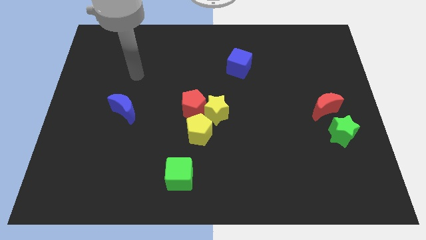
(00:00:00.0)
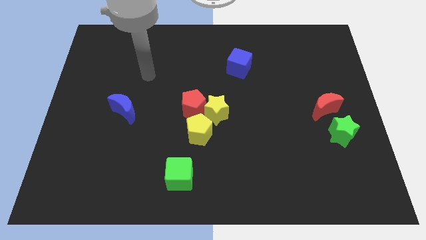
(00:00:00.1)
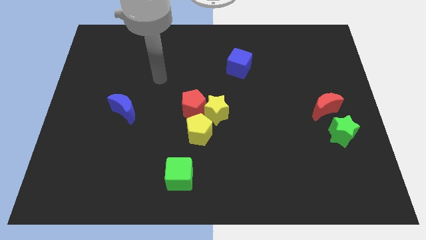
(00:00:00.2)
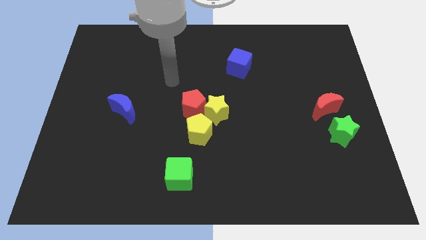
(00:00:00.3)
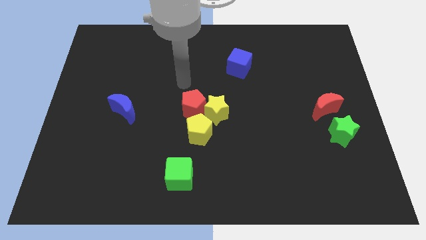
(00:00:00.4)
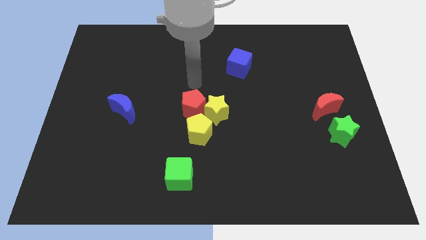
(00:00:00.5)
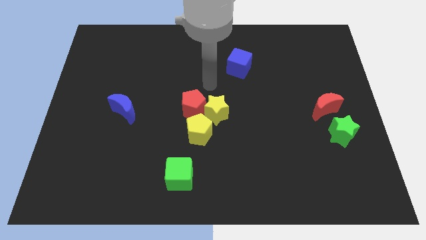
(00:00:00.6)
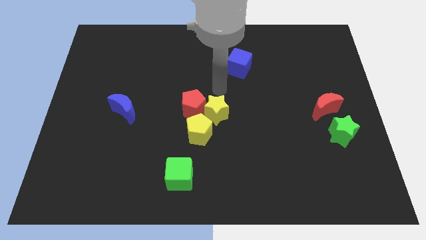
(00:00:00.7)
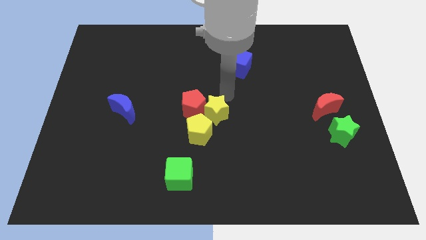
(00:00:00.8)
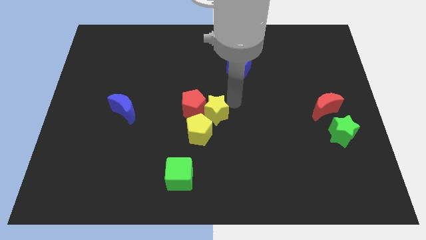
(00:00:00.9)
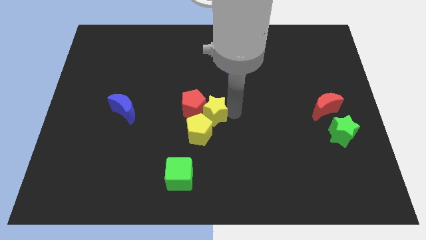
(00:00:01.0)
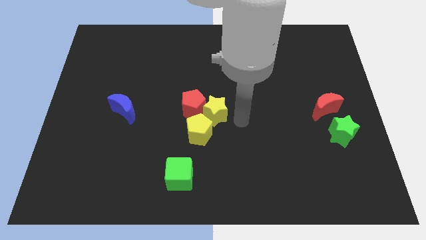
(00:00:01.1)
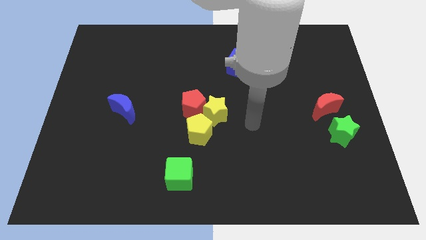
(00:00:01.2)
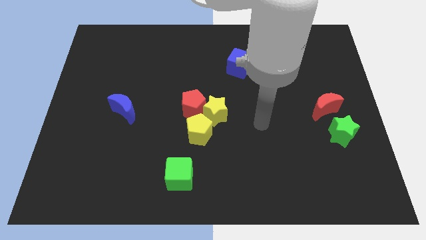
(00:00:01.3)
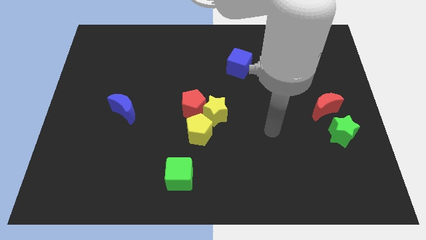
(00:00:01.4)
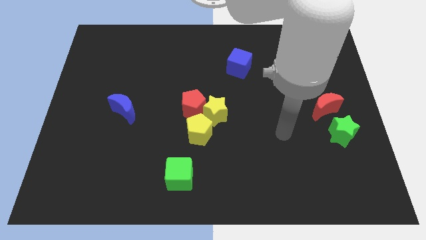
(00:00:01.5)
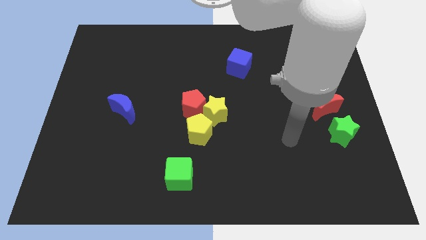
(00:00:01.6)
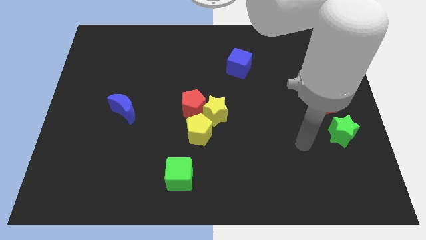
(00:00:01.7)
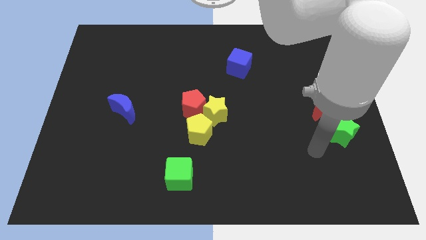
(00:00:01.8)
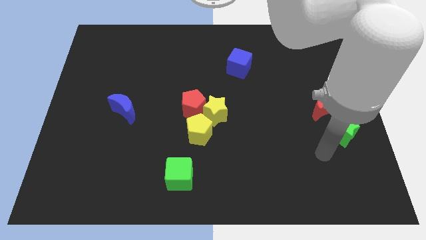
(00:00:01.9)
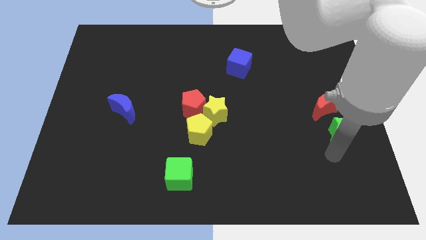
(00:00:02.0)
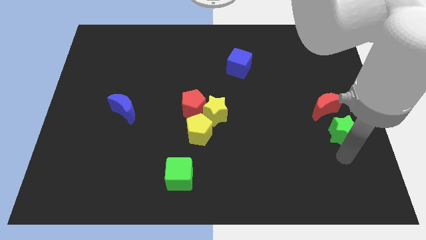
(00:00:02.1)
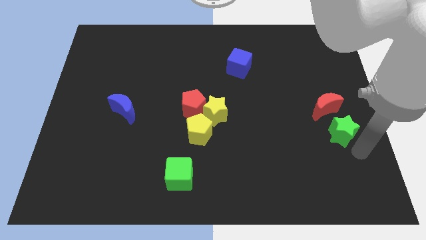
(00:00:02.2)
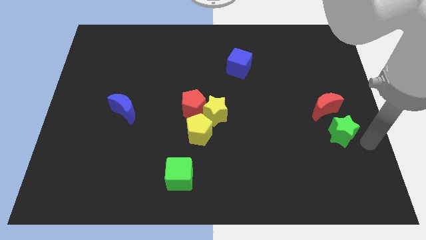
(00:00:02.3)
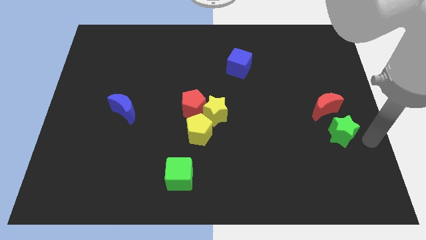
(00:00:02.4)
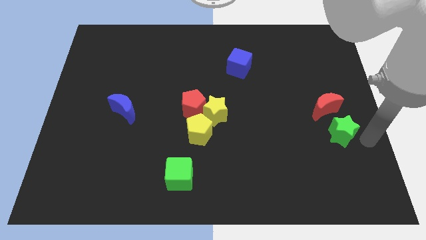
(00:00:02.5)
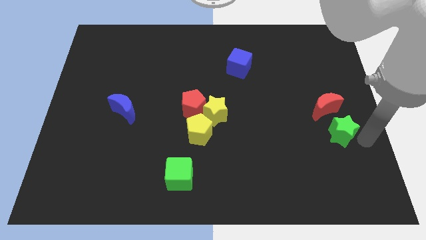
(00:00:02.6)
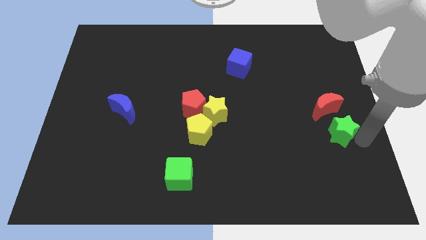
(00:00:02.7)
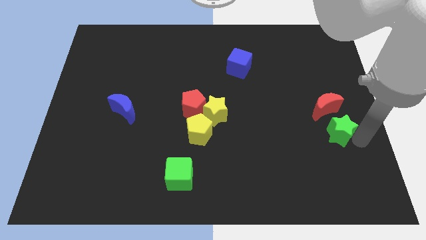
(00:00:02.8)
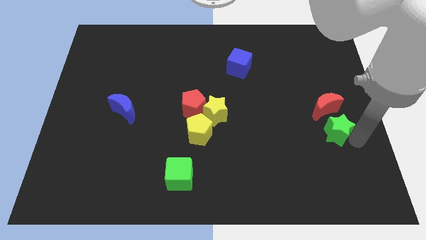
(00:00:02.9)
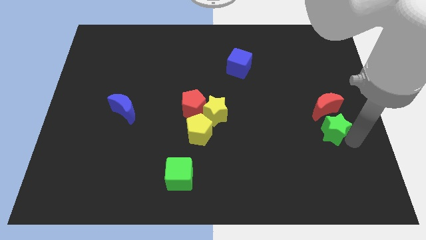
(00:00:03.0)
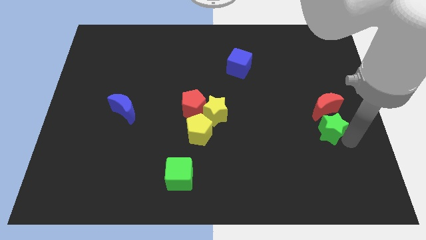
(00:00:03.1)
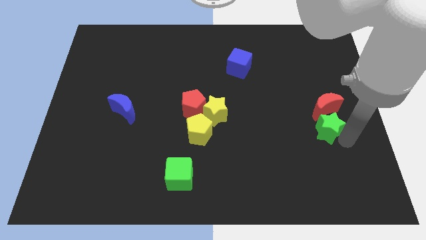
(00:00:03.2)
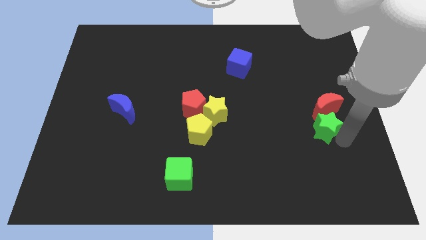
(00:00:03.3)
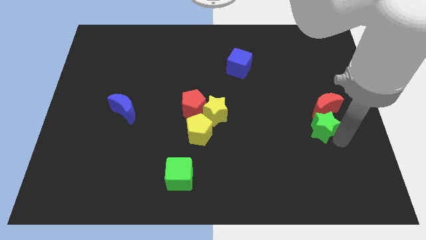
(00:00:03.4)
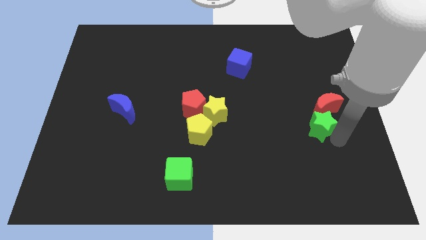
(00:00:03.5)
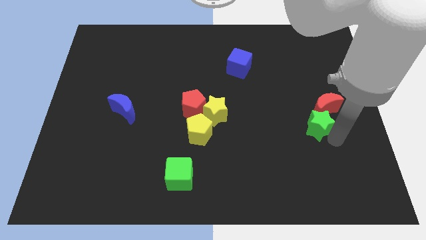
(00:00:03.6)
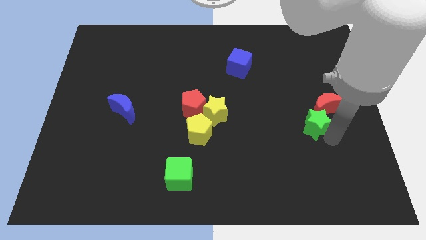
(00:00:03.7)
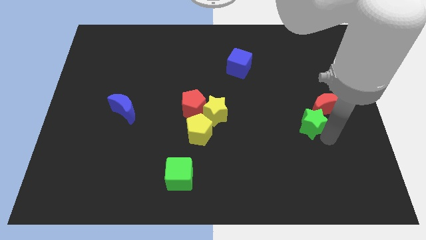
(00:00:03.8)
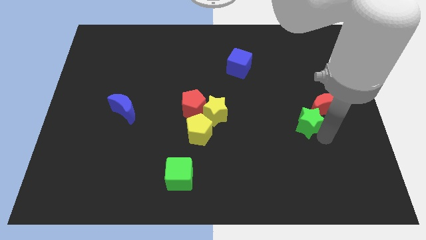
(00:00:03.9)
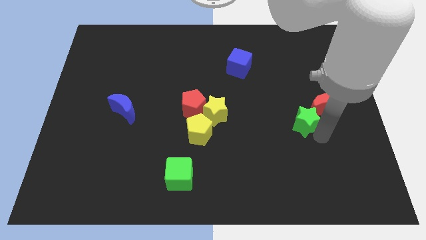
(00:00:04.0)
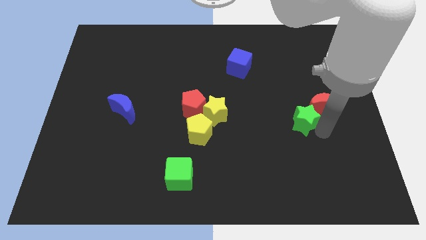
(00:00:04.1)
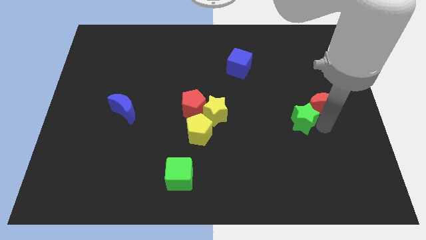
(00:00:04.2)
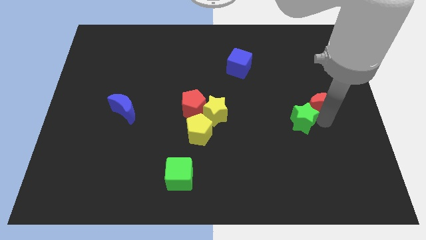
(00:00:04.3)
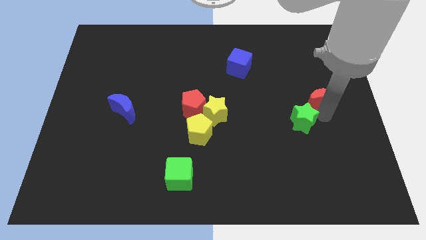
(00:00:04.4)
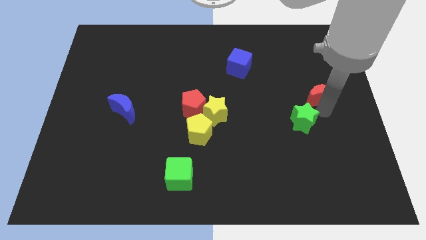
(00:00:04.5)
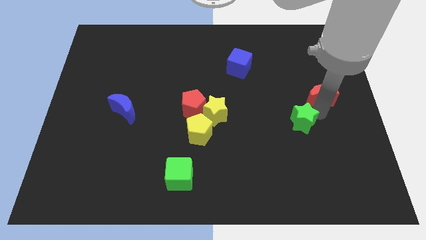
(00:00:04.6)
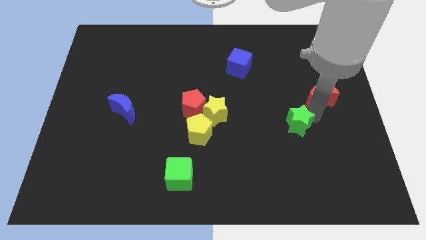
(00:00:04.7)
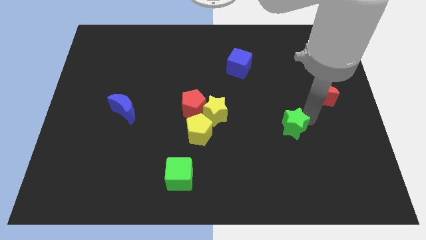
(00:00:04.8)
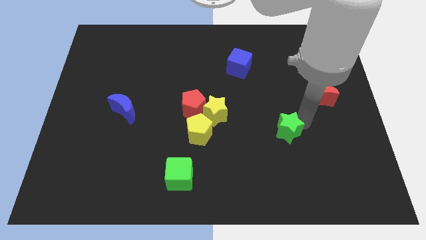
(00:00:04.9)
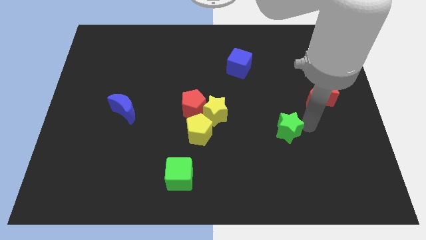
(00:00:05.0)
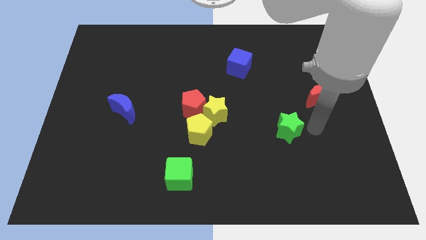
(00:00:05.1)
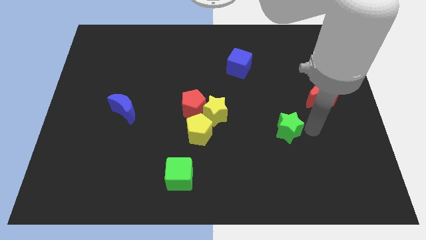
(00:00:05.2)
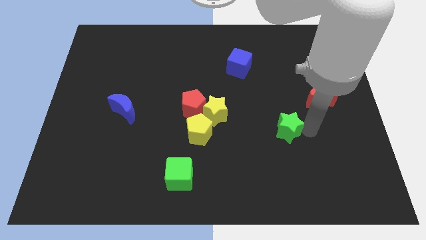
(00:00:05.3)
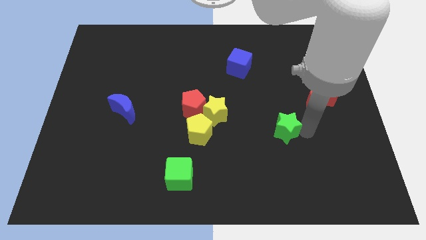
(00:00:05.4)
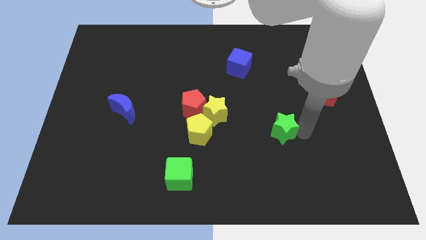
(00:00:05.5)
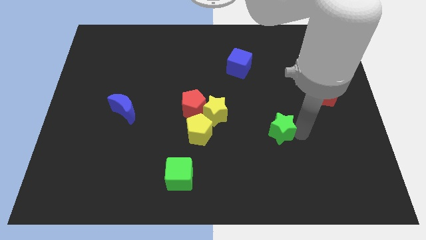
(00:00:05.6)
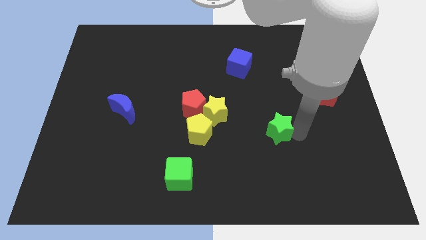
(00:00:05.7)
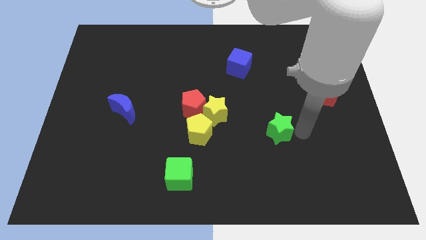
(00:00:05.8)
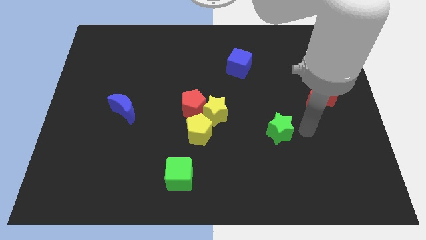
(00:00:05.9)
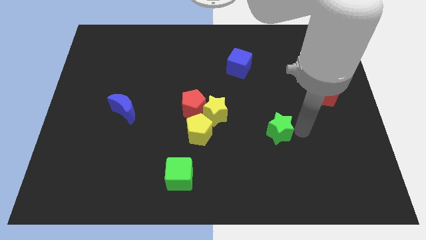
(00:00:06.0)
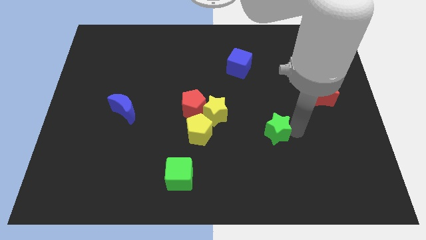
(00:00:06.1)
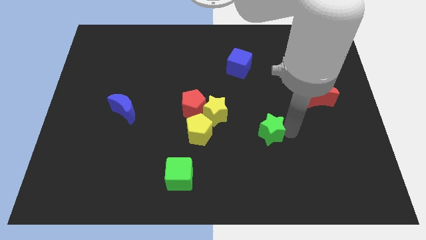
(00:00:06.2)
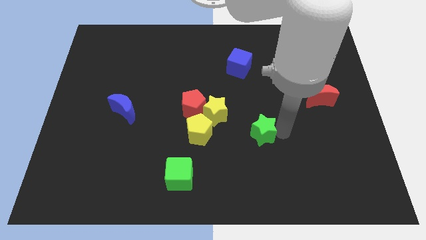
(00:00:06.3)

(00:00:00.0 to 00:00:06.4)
push the green star diagonally down and to the right of the yellow star
